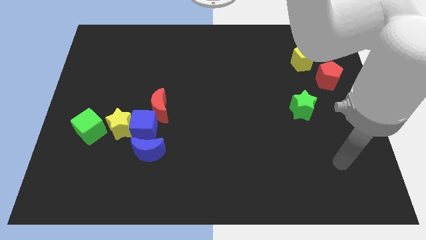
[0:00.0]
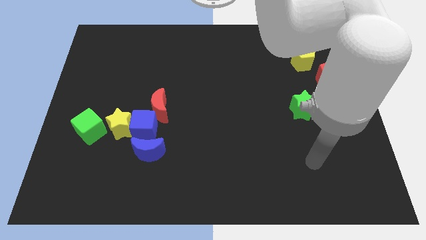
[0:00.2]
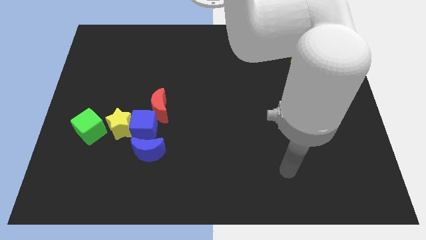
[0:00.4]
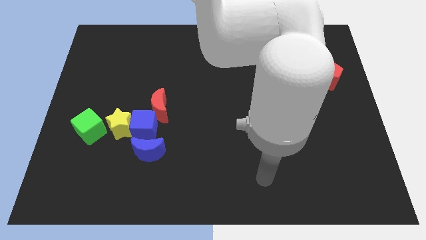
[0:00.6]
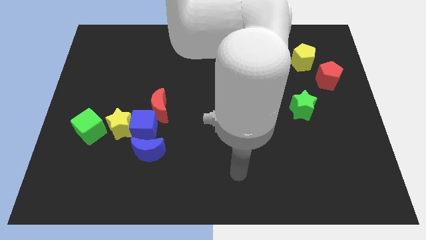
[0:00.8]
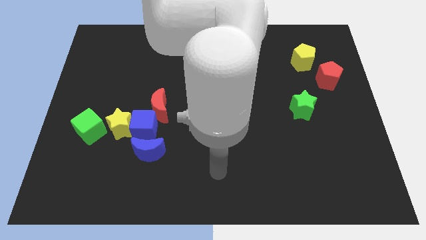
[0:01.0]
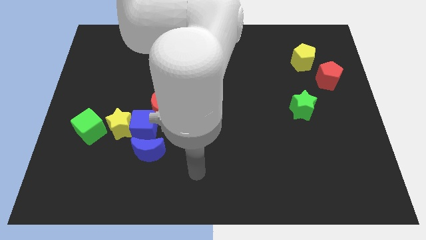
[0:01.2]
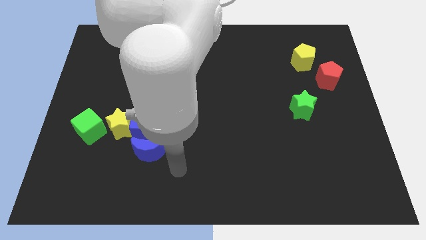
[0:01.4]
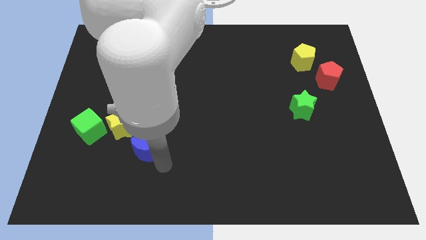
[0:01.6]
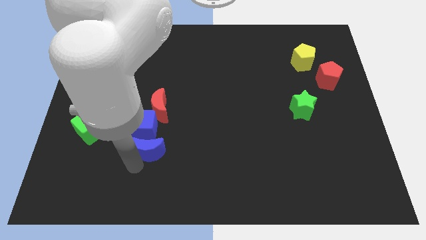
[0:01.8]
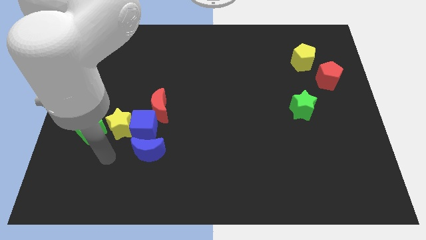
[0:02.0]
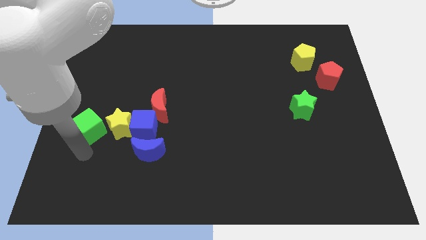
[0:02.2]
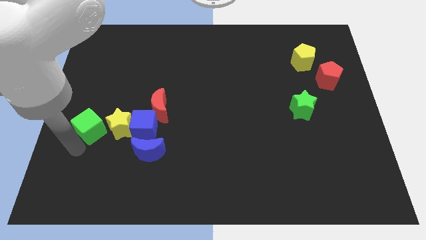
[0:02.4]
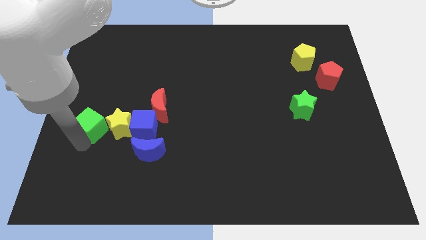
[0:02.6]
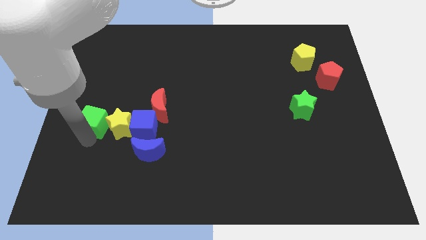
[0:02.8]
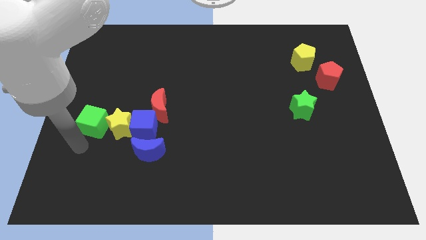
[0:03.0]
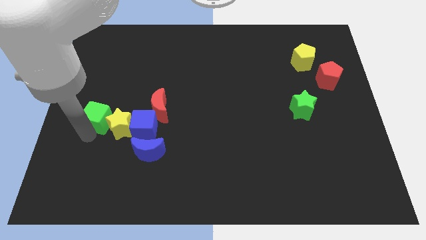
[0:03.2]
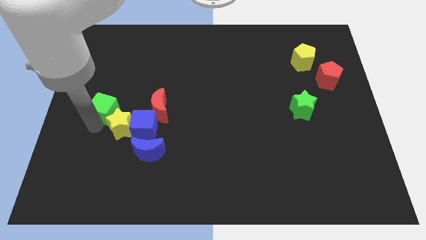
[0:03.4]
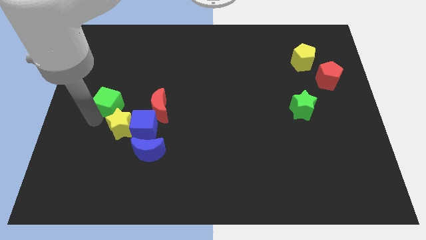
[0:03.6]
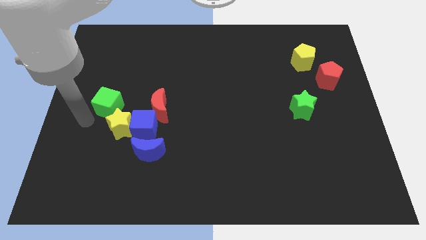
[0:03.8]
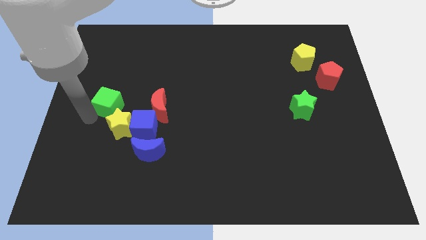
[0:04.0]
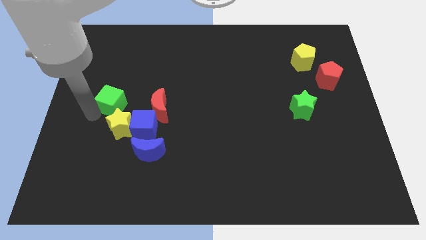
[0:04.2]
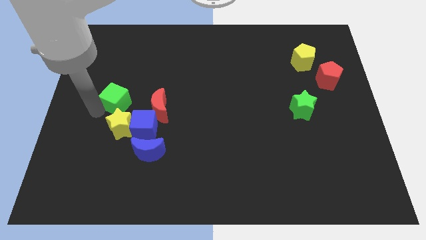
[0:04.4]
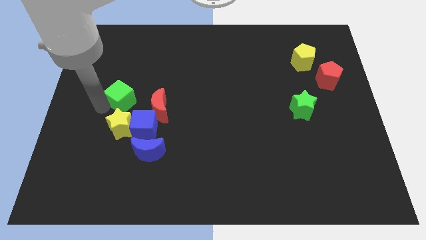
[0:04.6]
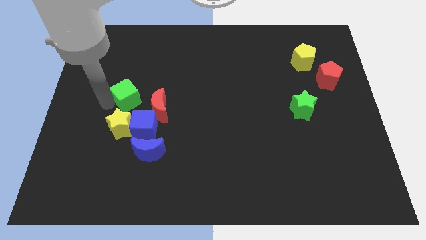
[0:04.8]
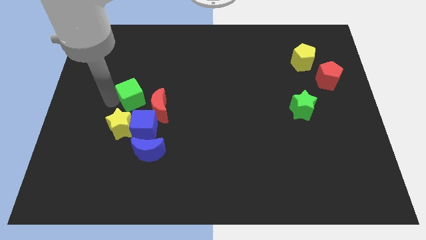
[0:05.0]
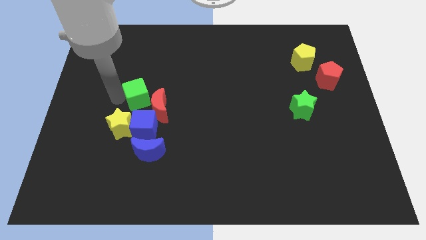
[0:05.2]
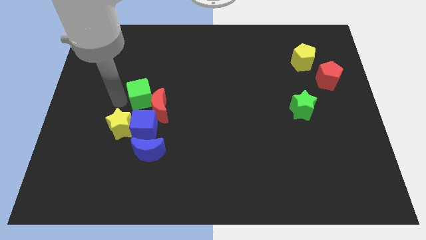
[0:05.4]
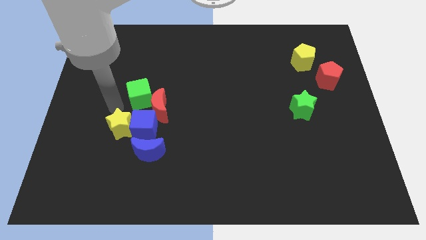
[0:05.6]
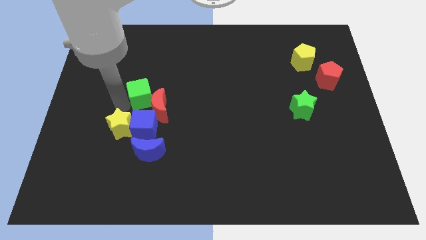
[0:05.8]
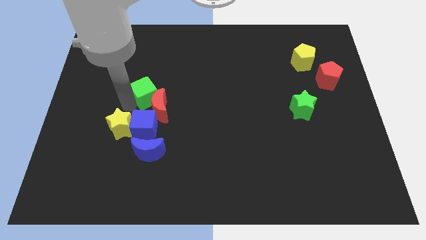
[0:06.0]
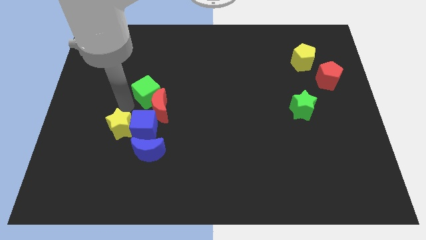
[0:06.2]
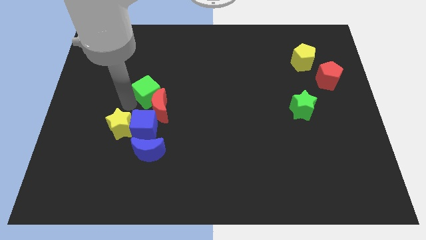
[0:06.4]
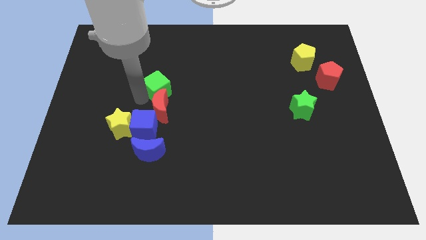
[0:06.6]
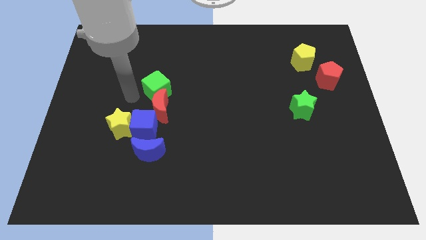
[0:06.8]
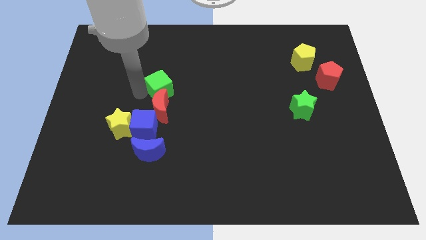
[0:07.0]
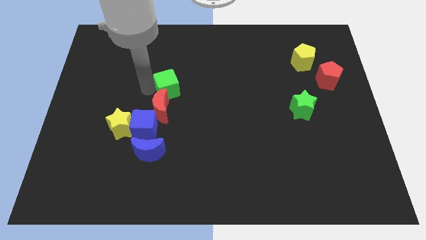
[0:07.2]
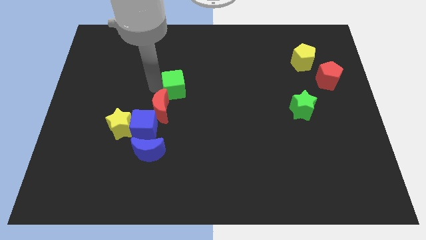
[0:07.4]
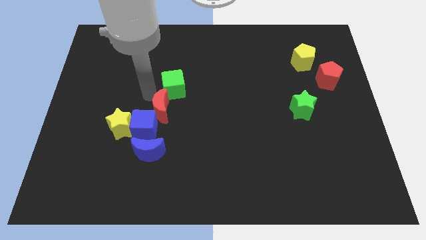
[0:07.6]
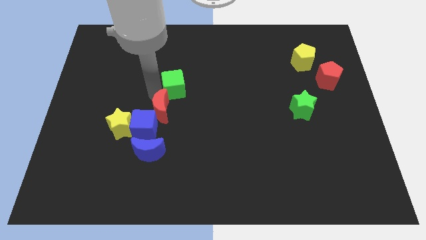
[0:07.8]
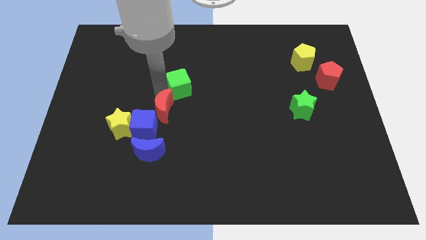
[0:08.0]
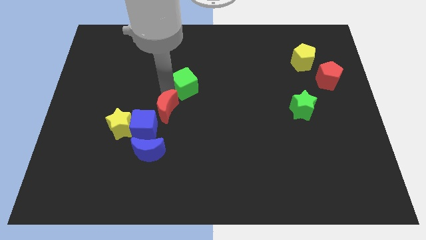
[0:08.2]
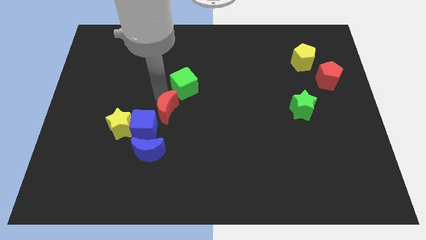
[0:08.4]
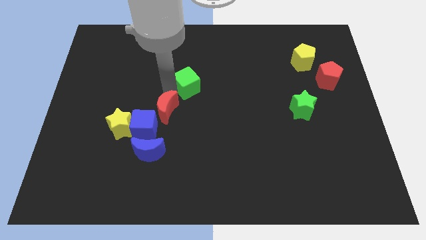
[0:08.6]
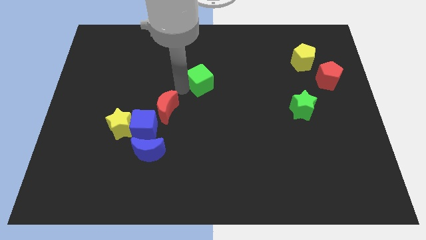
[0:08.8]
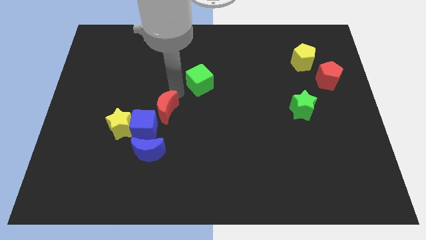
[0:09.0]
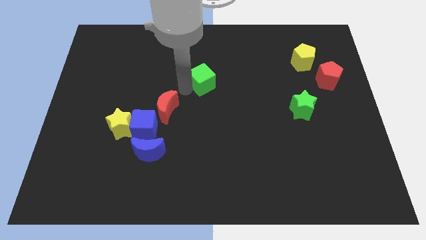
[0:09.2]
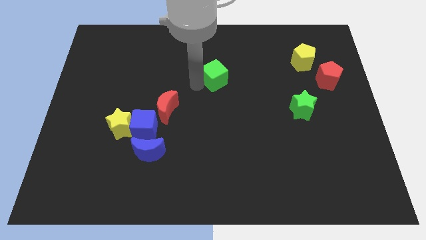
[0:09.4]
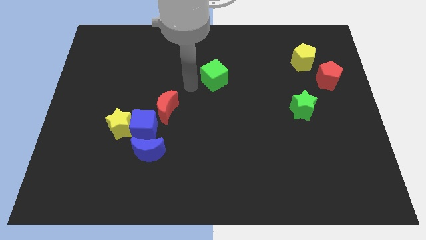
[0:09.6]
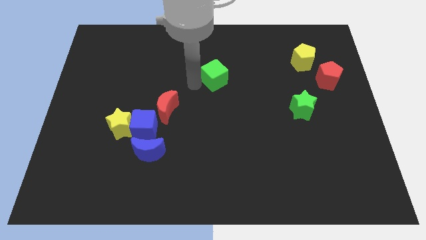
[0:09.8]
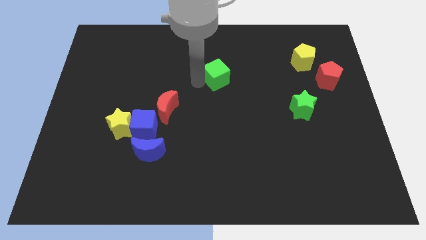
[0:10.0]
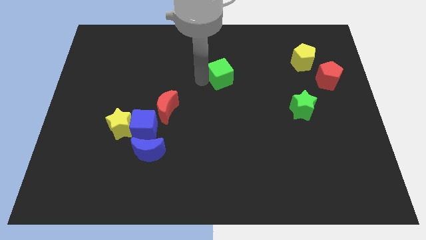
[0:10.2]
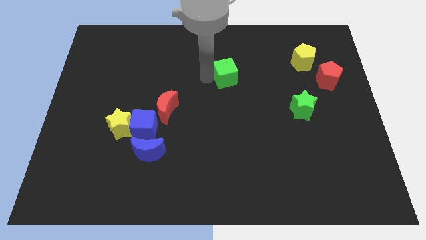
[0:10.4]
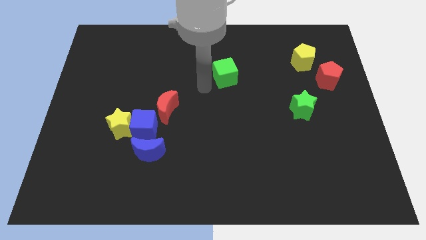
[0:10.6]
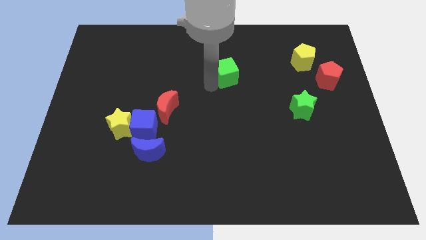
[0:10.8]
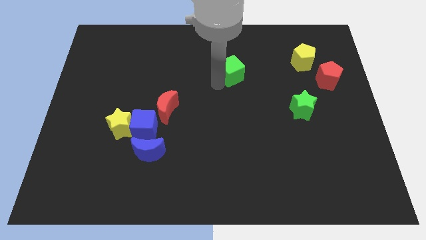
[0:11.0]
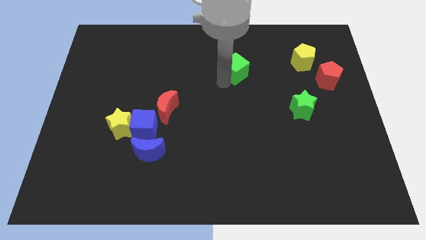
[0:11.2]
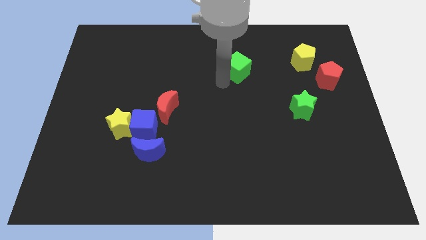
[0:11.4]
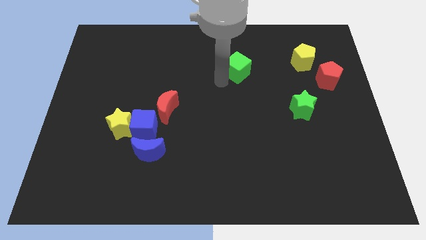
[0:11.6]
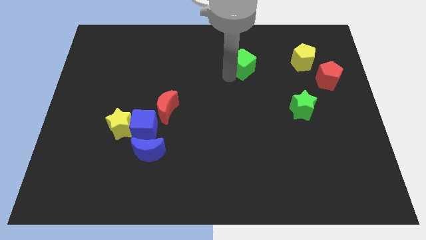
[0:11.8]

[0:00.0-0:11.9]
slide the green cube left of the yellow pentagon

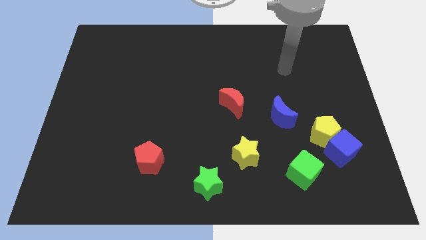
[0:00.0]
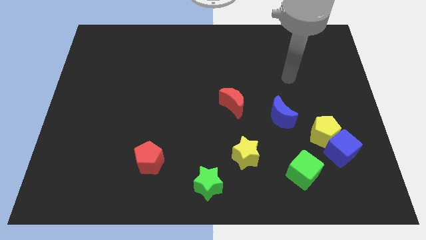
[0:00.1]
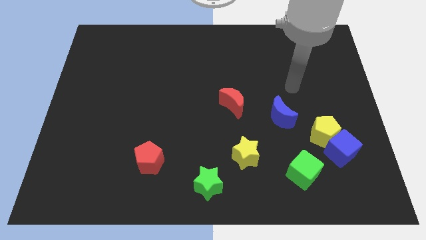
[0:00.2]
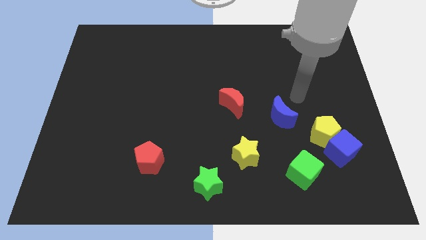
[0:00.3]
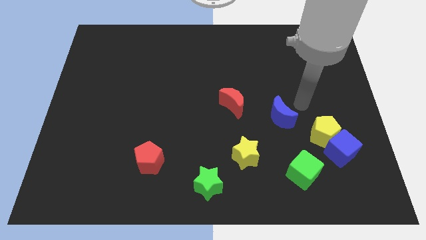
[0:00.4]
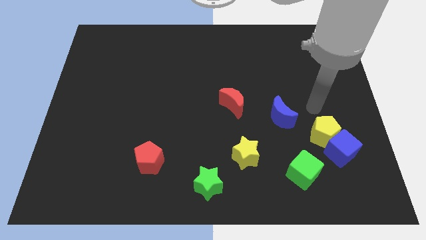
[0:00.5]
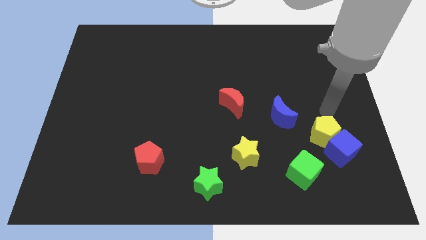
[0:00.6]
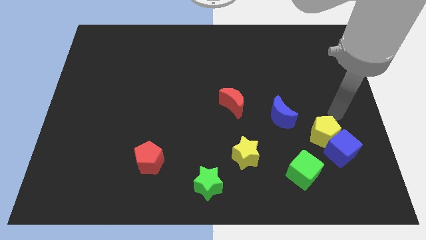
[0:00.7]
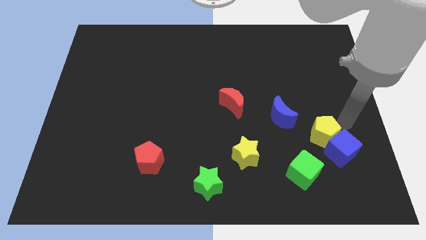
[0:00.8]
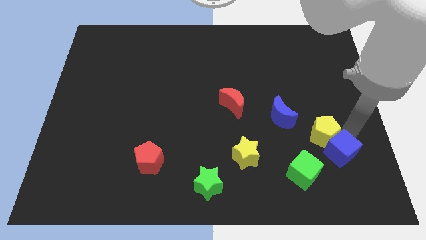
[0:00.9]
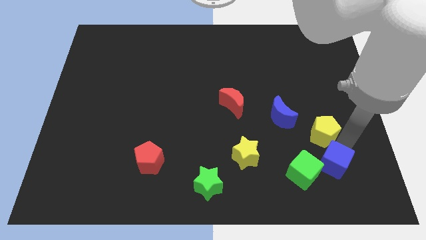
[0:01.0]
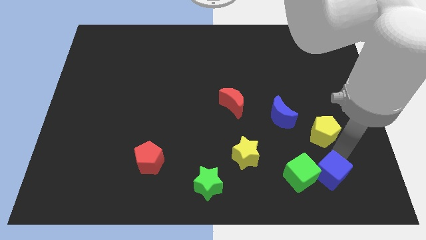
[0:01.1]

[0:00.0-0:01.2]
slide the green cube diagonally down and to the right of the yellow star
